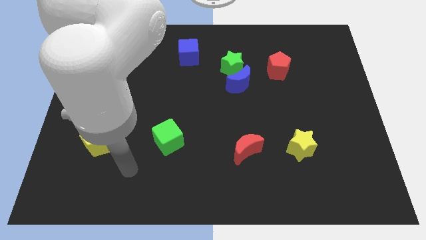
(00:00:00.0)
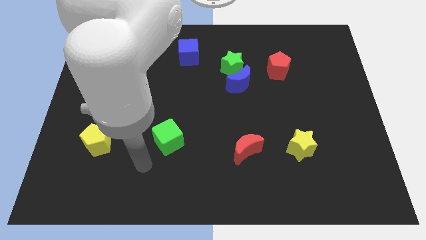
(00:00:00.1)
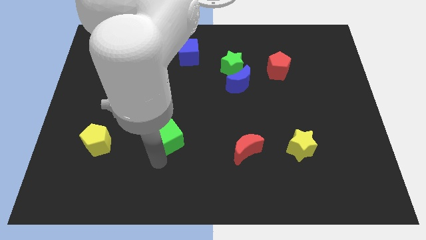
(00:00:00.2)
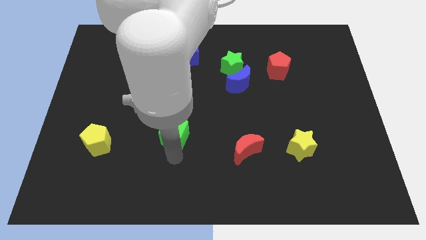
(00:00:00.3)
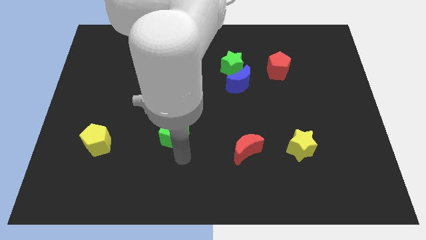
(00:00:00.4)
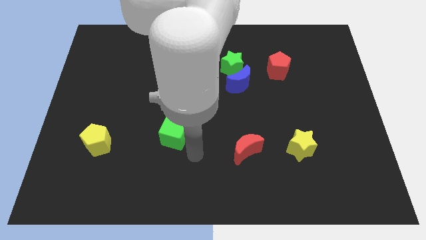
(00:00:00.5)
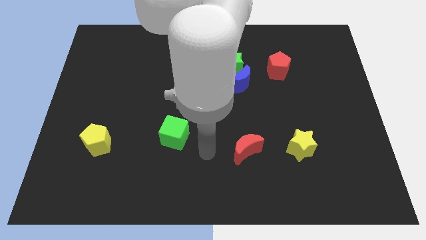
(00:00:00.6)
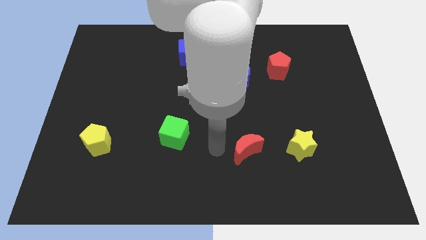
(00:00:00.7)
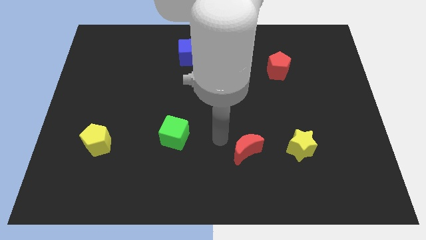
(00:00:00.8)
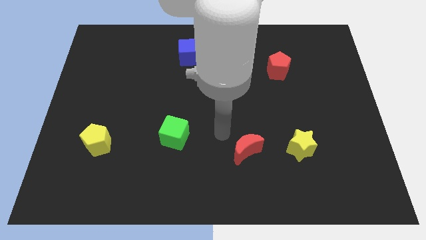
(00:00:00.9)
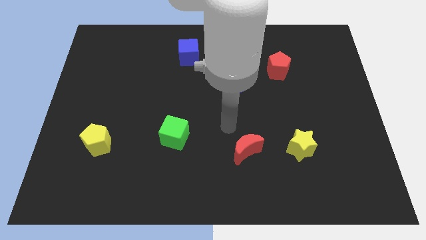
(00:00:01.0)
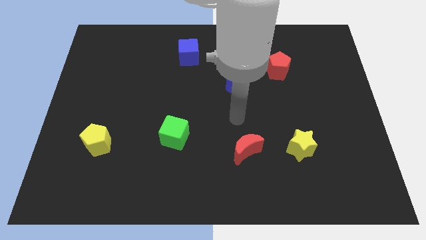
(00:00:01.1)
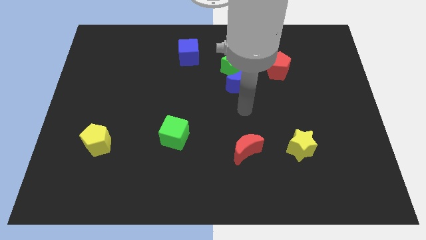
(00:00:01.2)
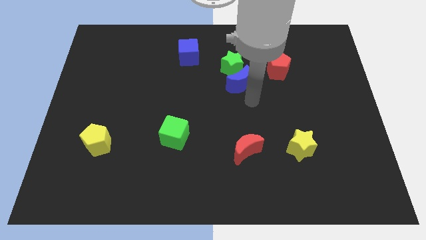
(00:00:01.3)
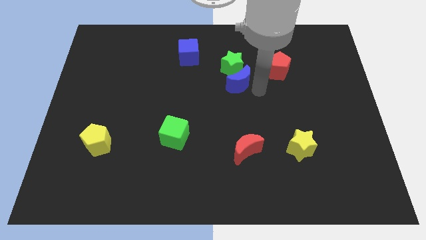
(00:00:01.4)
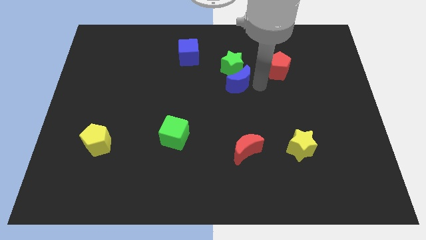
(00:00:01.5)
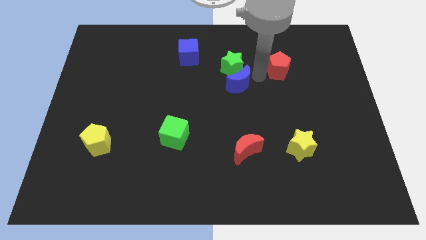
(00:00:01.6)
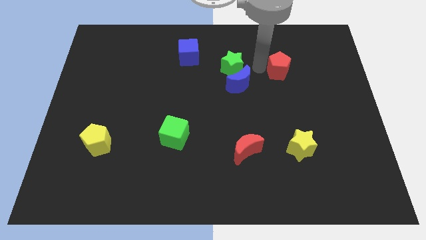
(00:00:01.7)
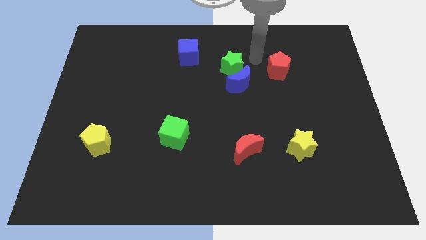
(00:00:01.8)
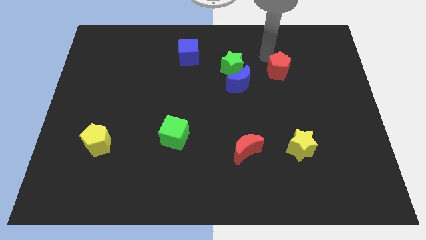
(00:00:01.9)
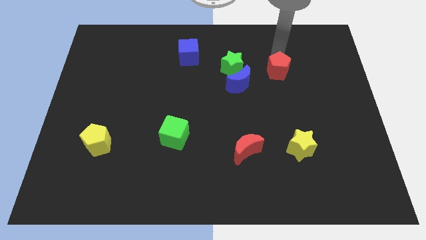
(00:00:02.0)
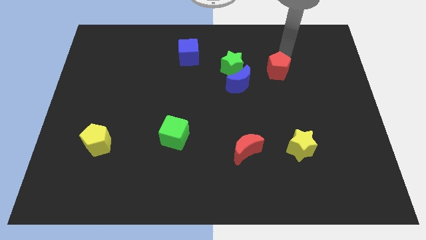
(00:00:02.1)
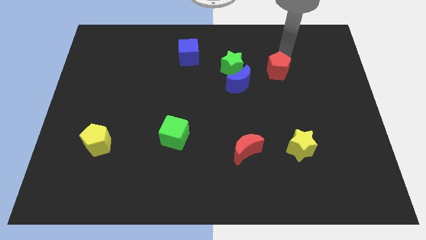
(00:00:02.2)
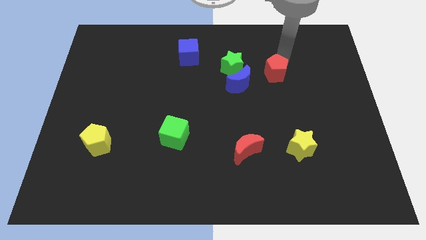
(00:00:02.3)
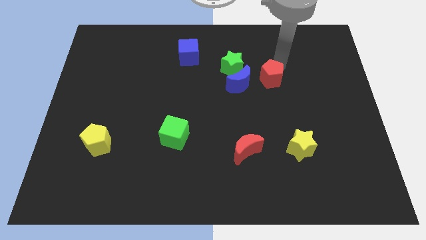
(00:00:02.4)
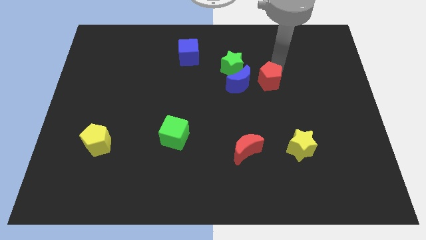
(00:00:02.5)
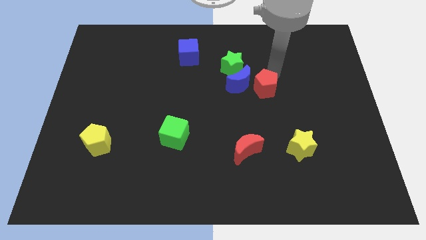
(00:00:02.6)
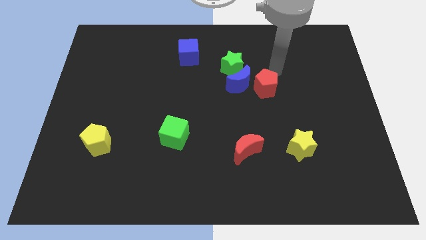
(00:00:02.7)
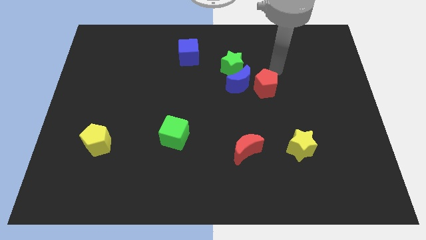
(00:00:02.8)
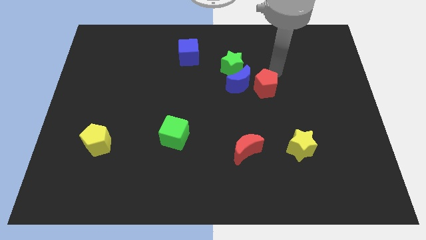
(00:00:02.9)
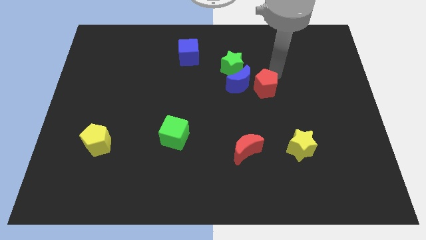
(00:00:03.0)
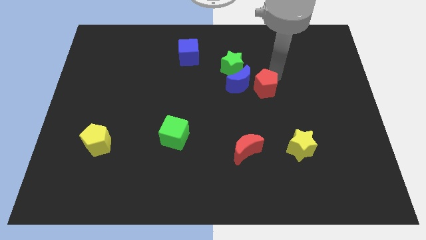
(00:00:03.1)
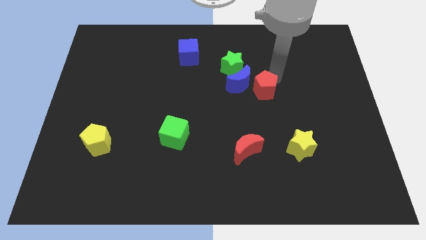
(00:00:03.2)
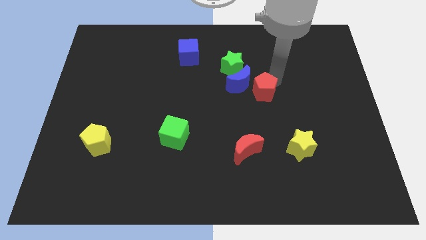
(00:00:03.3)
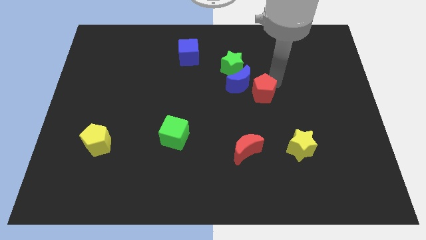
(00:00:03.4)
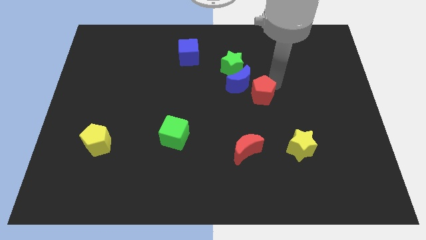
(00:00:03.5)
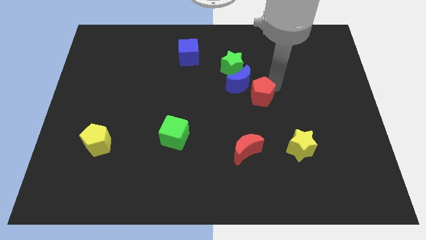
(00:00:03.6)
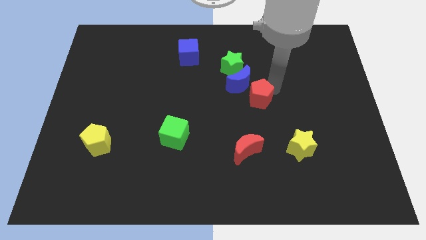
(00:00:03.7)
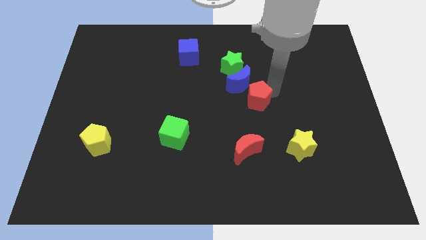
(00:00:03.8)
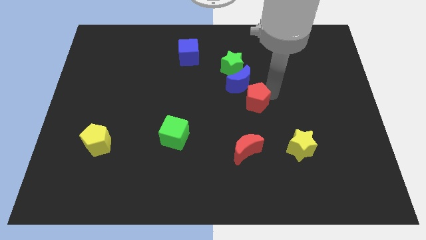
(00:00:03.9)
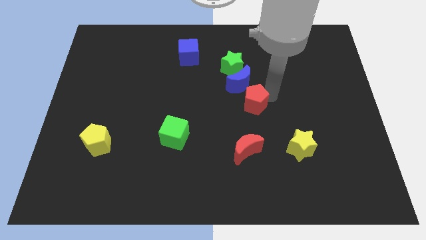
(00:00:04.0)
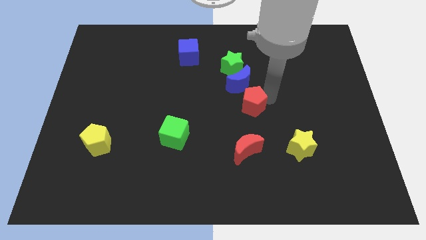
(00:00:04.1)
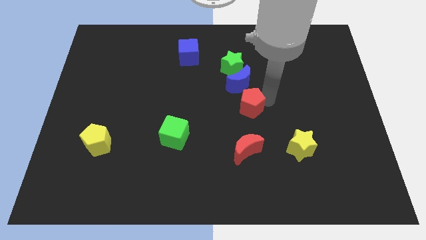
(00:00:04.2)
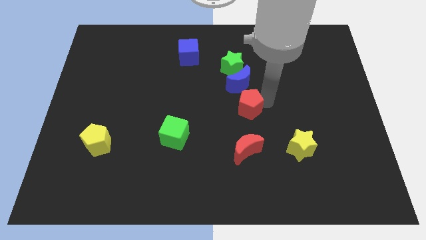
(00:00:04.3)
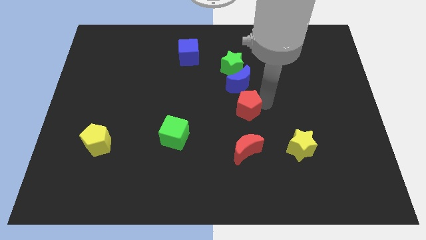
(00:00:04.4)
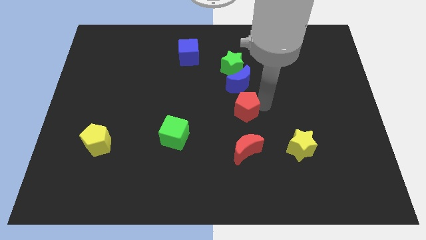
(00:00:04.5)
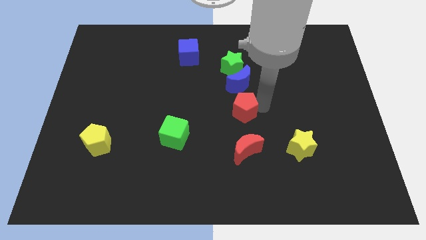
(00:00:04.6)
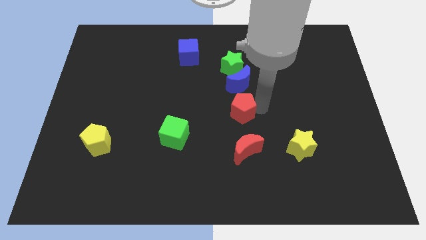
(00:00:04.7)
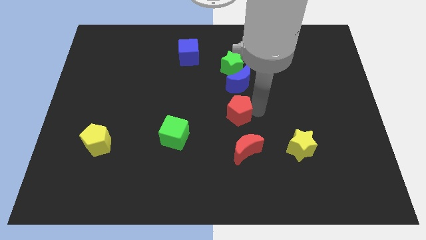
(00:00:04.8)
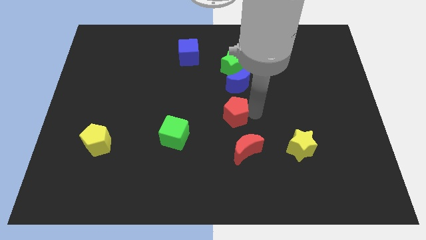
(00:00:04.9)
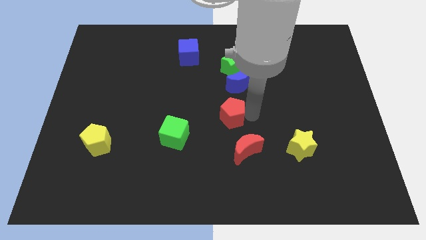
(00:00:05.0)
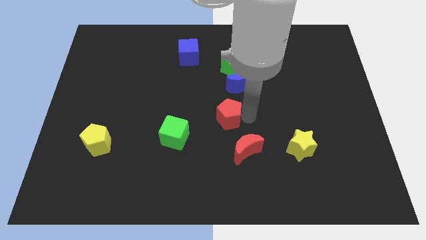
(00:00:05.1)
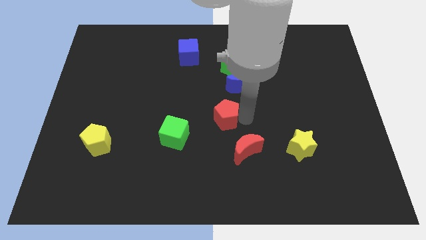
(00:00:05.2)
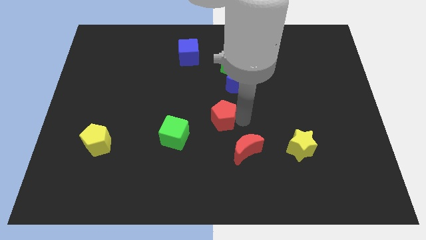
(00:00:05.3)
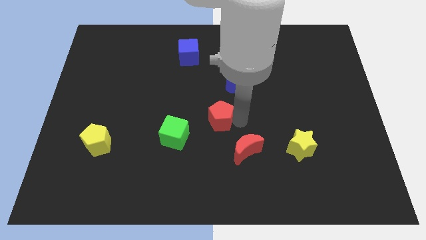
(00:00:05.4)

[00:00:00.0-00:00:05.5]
slide the red pentagon diagonally up and to the right of the green cube

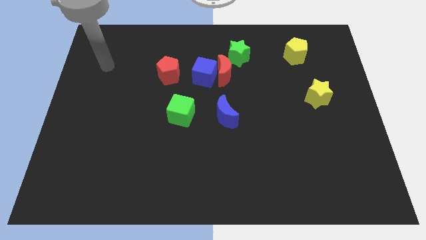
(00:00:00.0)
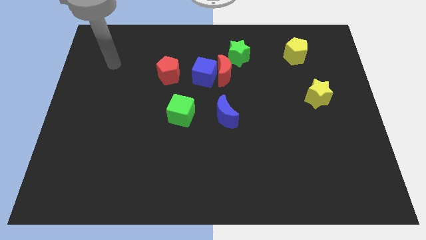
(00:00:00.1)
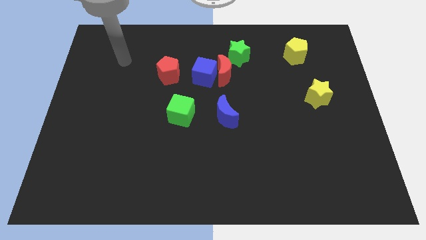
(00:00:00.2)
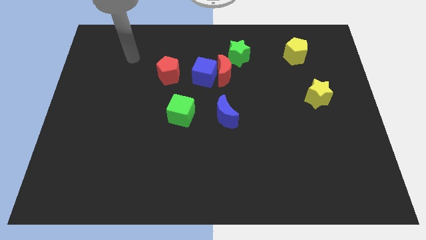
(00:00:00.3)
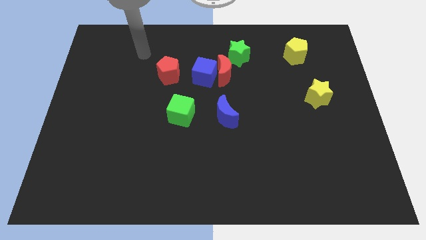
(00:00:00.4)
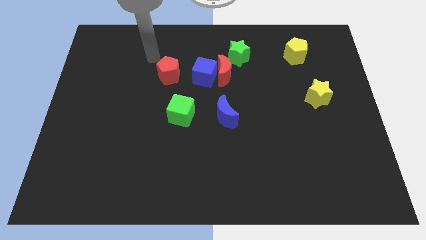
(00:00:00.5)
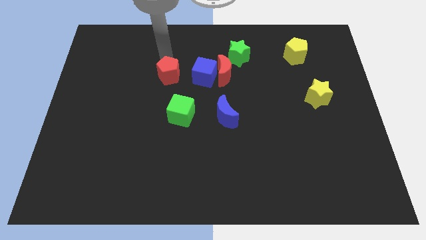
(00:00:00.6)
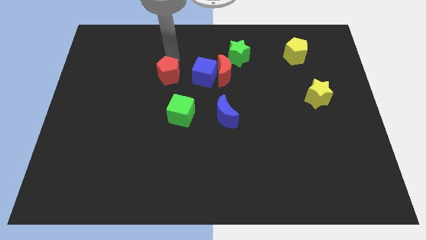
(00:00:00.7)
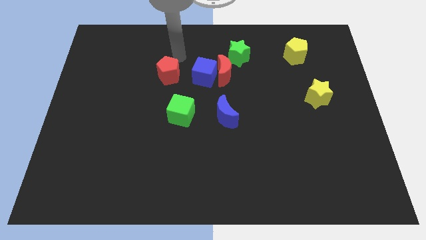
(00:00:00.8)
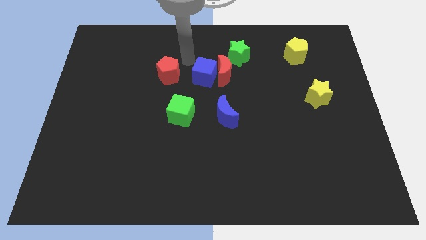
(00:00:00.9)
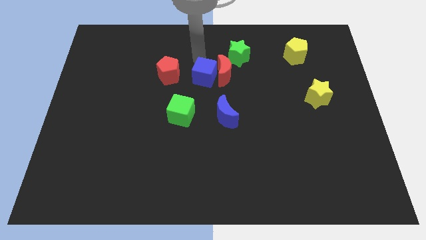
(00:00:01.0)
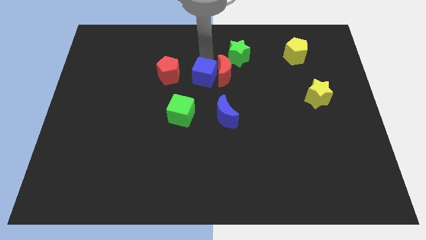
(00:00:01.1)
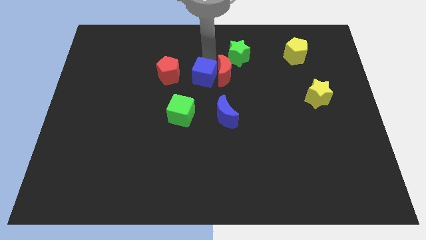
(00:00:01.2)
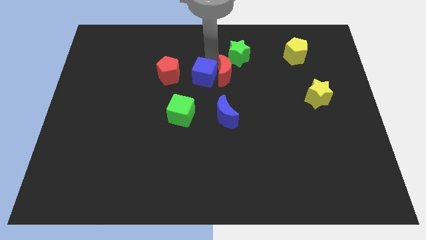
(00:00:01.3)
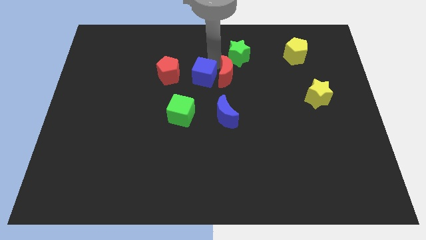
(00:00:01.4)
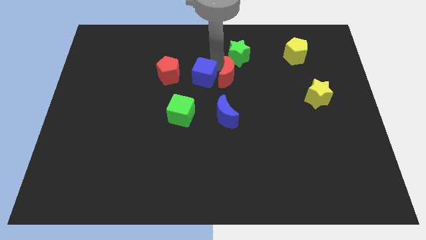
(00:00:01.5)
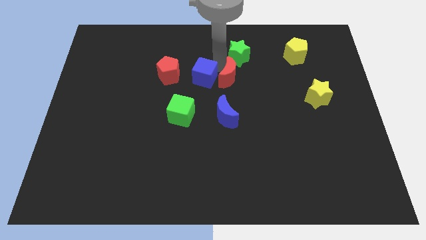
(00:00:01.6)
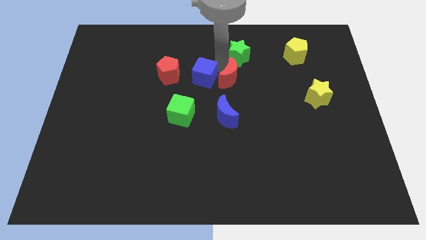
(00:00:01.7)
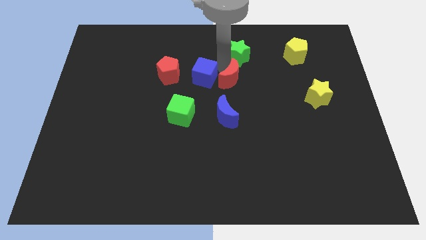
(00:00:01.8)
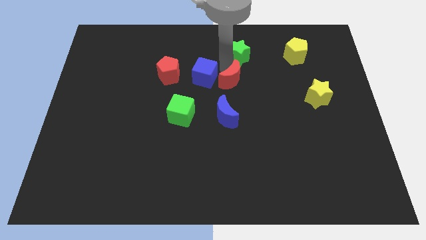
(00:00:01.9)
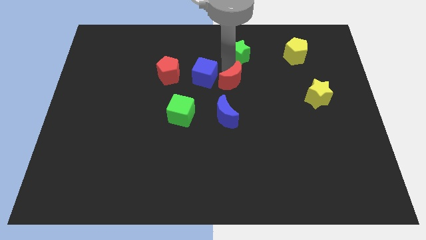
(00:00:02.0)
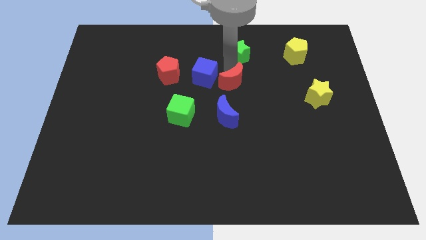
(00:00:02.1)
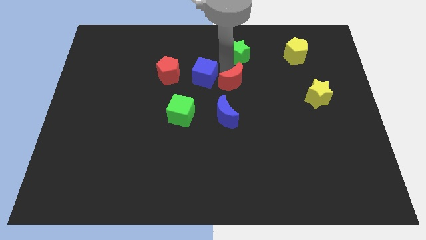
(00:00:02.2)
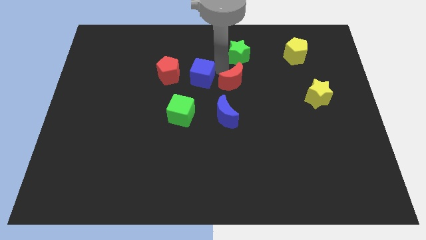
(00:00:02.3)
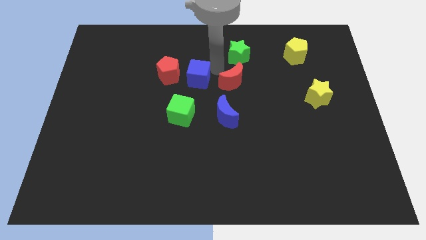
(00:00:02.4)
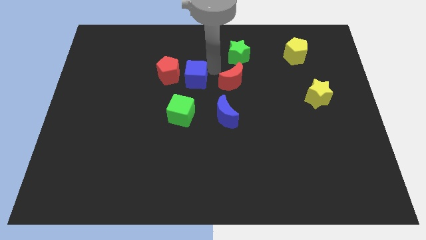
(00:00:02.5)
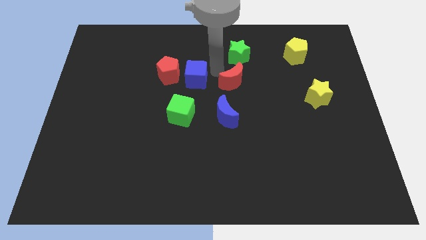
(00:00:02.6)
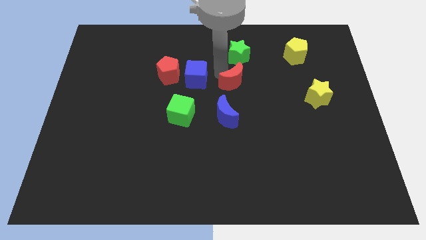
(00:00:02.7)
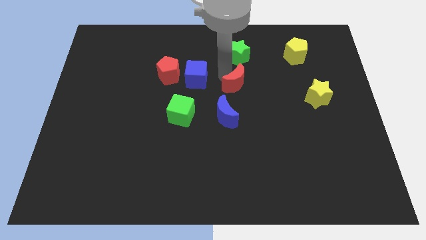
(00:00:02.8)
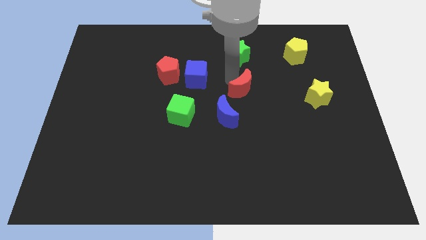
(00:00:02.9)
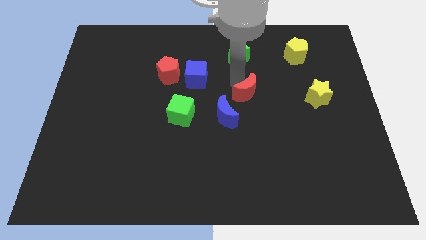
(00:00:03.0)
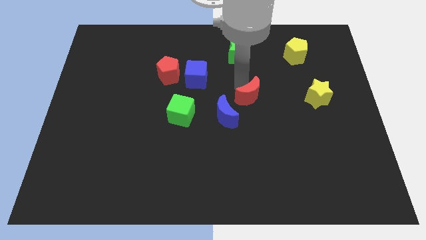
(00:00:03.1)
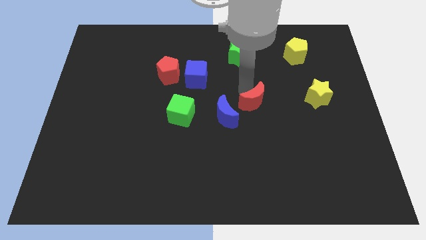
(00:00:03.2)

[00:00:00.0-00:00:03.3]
push the red moon just right of the blue moon
